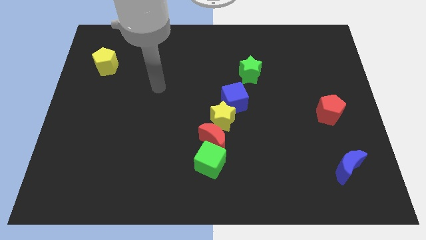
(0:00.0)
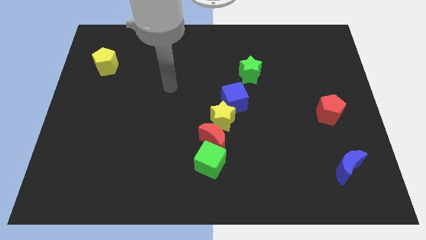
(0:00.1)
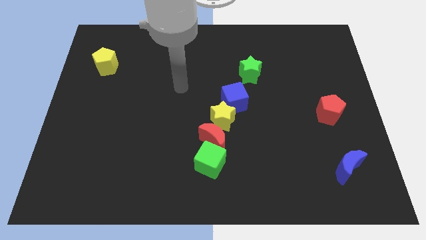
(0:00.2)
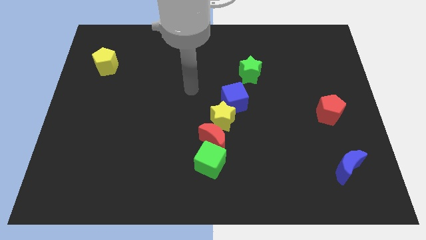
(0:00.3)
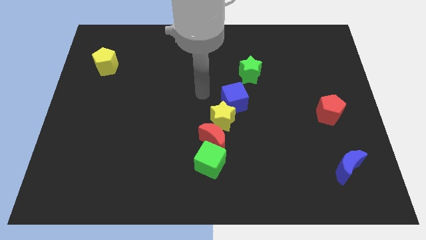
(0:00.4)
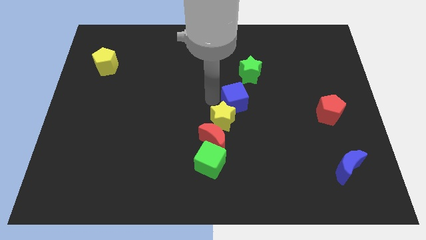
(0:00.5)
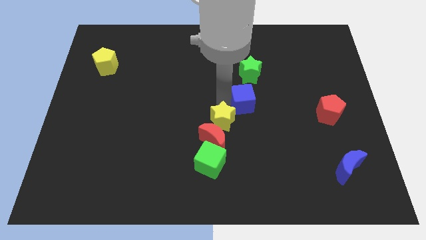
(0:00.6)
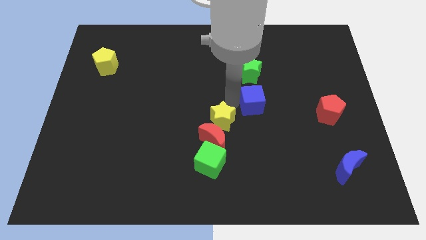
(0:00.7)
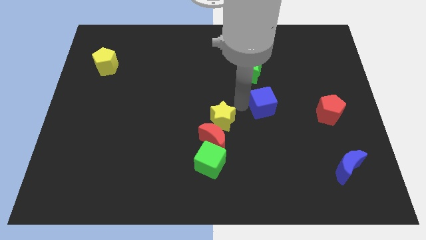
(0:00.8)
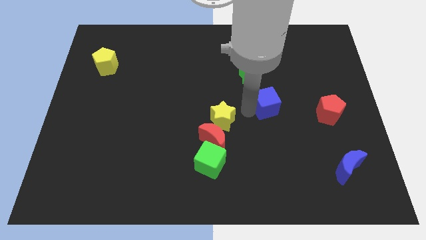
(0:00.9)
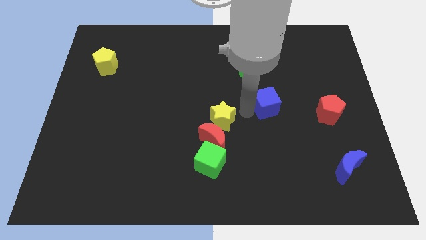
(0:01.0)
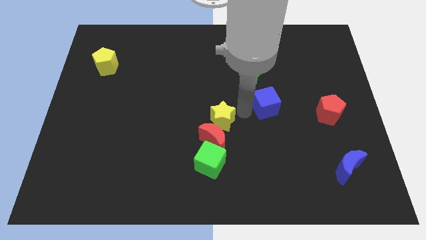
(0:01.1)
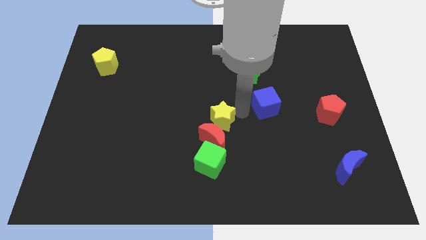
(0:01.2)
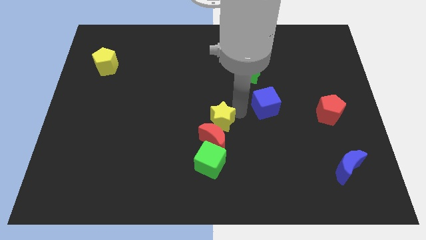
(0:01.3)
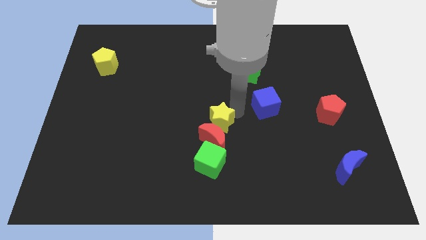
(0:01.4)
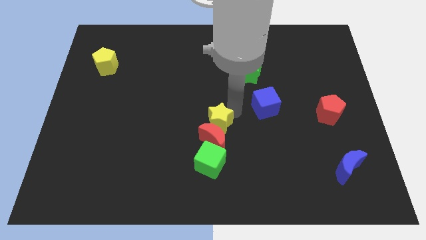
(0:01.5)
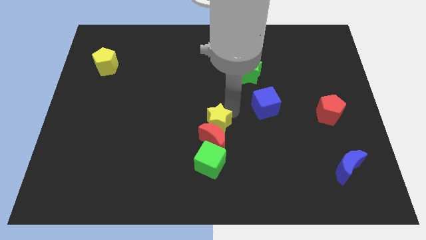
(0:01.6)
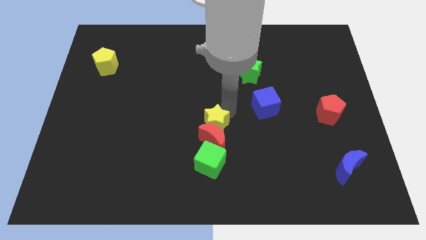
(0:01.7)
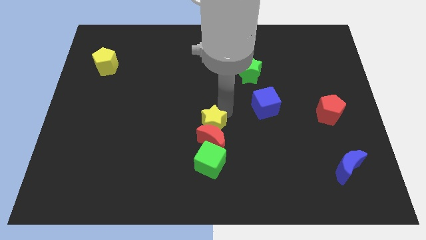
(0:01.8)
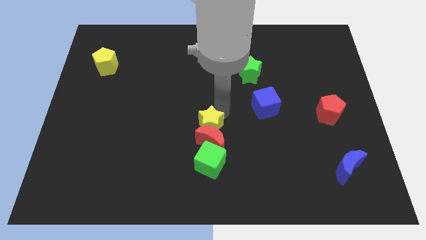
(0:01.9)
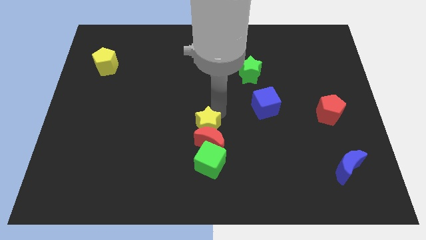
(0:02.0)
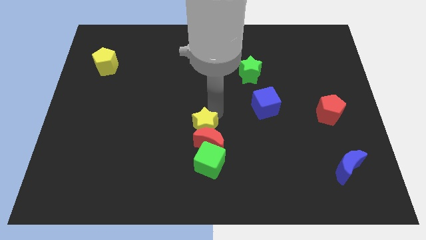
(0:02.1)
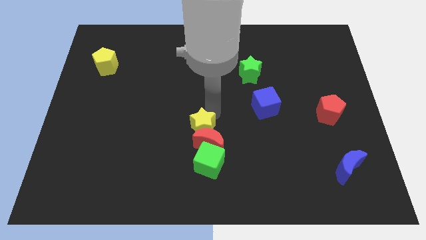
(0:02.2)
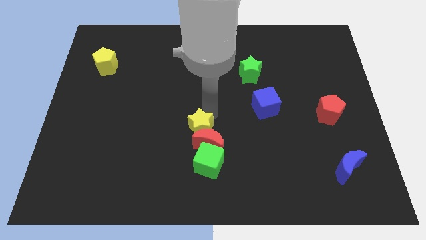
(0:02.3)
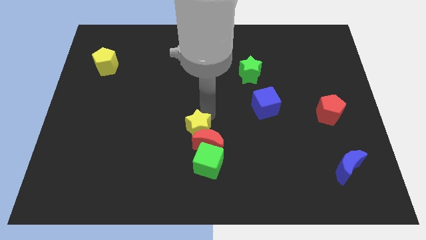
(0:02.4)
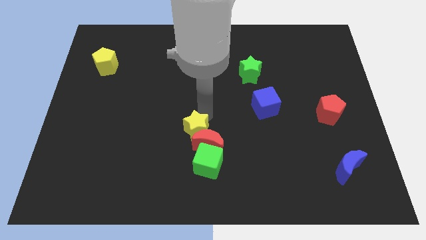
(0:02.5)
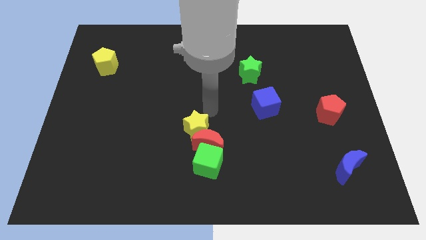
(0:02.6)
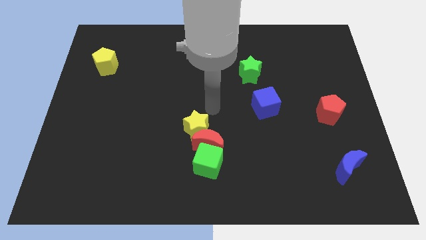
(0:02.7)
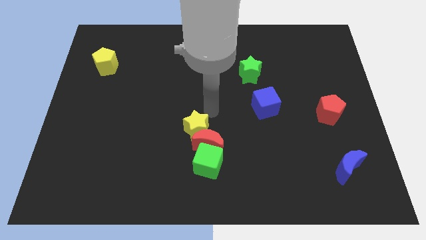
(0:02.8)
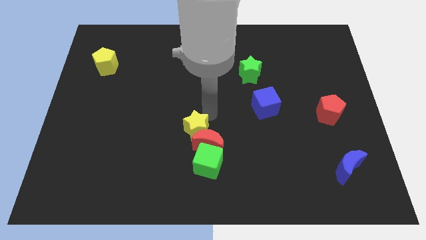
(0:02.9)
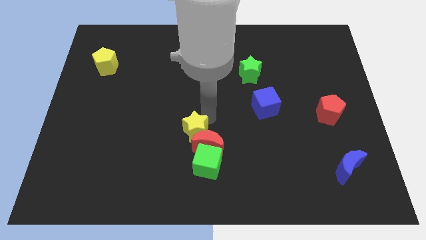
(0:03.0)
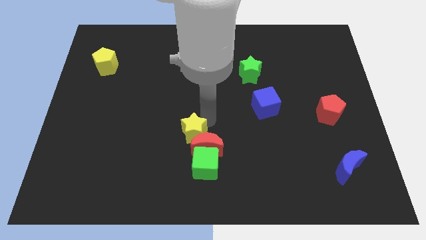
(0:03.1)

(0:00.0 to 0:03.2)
slightly push the yellow star diagonally downwards and to the left

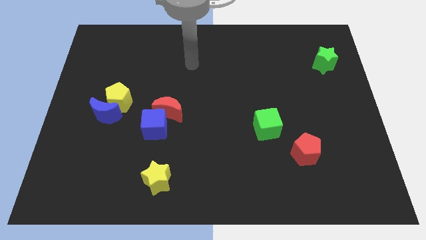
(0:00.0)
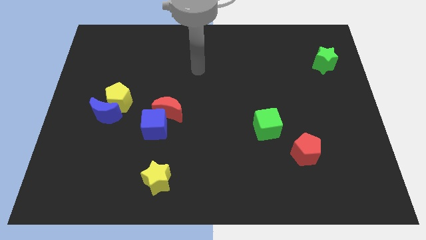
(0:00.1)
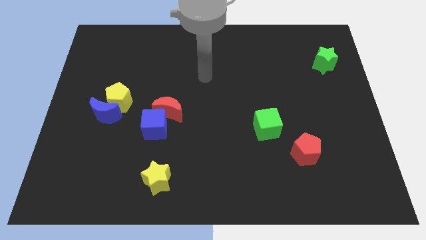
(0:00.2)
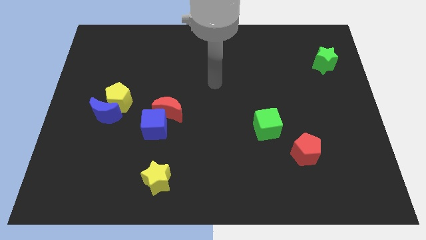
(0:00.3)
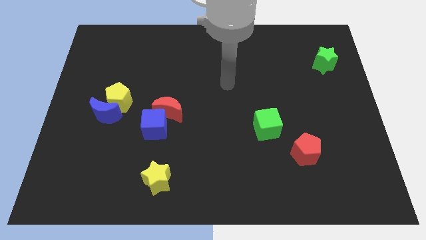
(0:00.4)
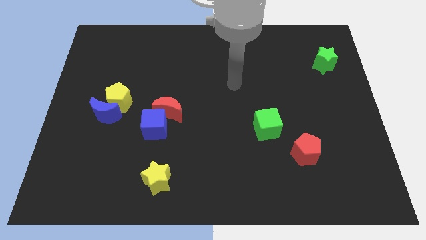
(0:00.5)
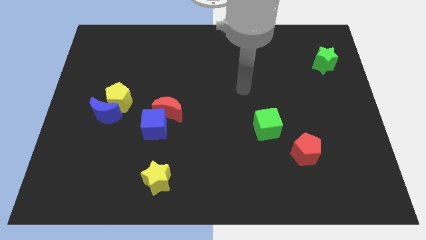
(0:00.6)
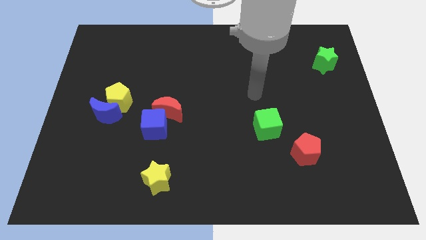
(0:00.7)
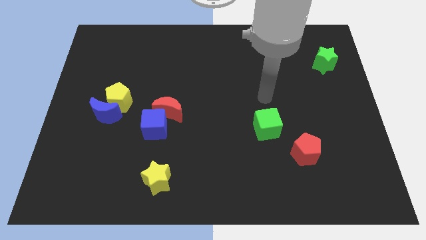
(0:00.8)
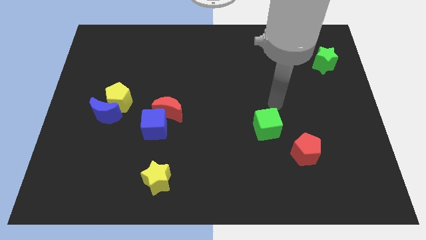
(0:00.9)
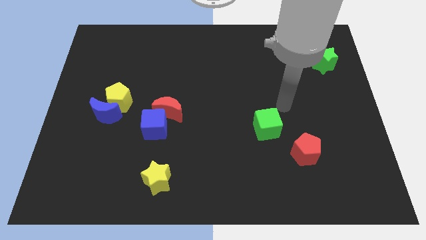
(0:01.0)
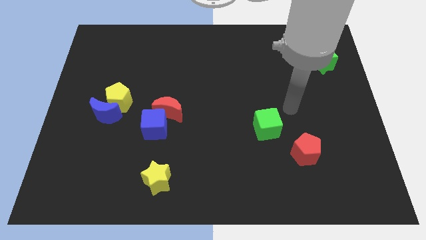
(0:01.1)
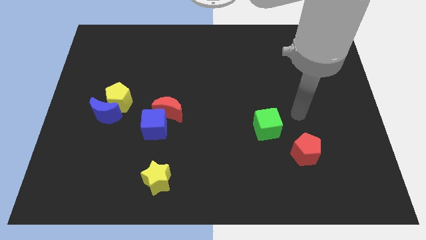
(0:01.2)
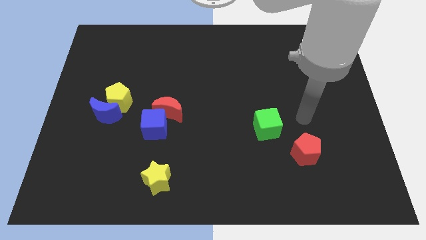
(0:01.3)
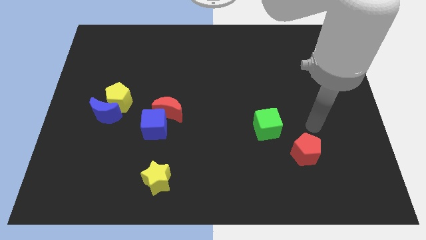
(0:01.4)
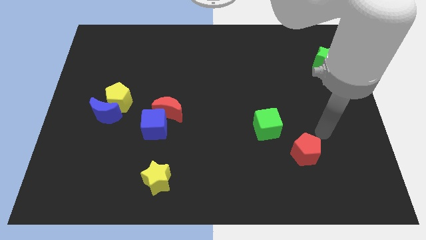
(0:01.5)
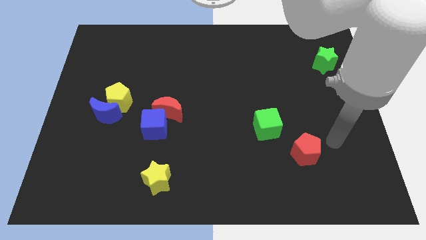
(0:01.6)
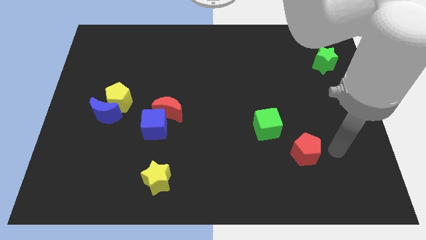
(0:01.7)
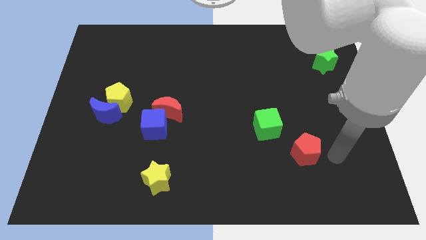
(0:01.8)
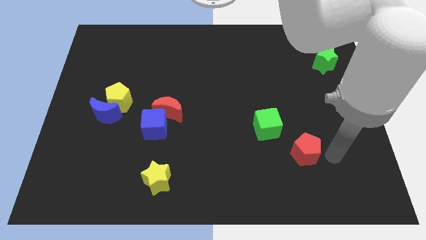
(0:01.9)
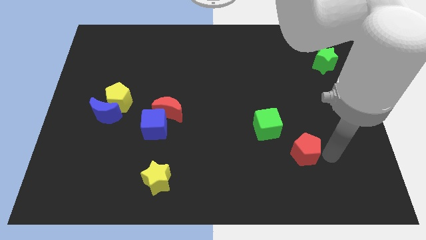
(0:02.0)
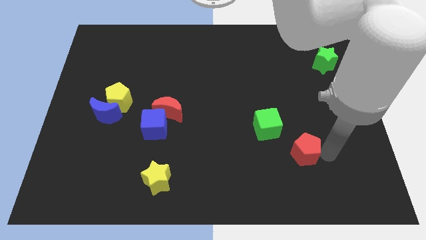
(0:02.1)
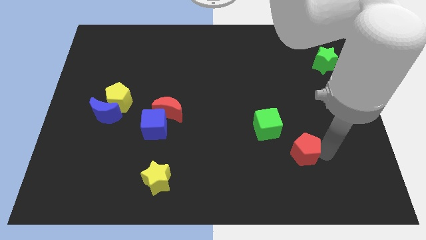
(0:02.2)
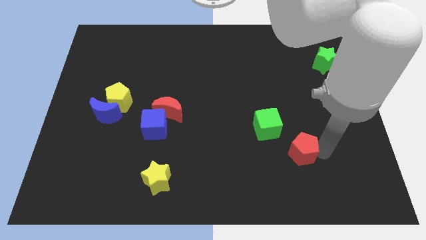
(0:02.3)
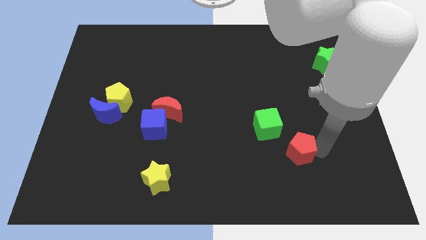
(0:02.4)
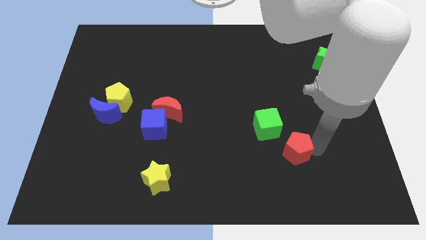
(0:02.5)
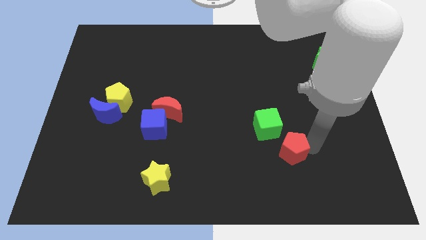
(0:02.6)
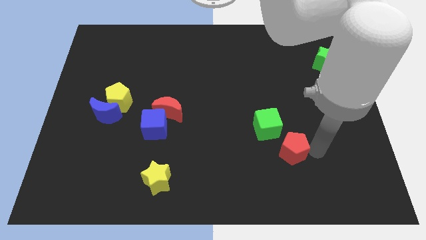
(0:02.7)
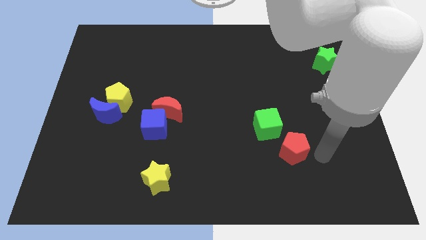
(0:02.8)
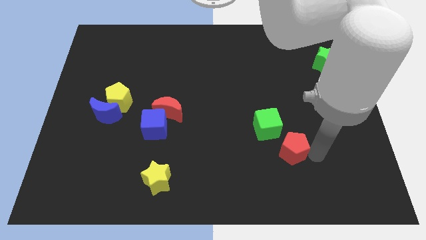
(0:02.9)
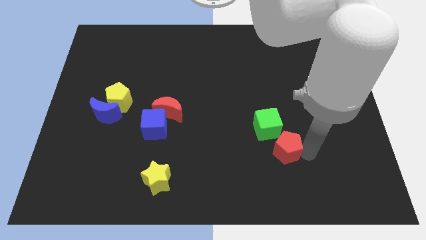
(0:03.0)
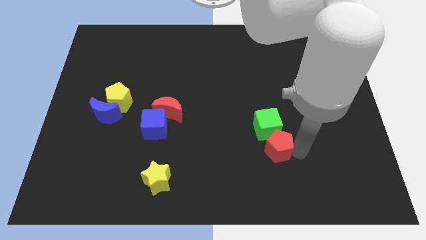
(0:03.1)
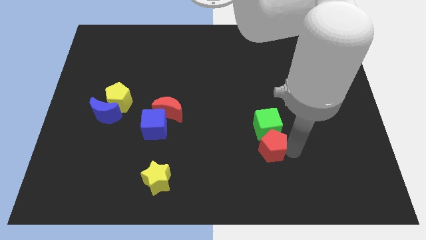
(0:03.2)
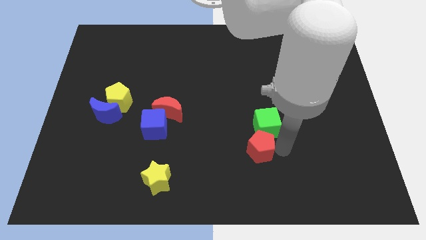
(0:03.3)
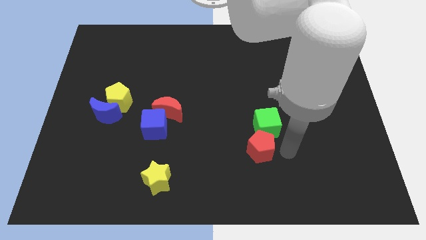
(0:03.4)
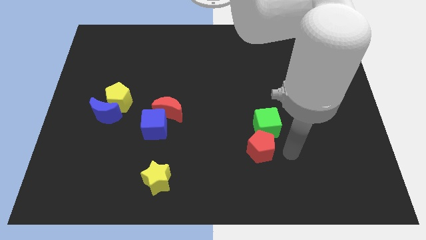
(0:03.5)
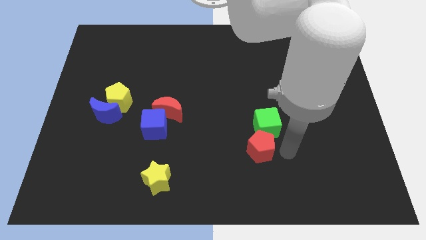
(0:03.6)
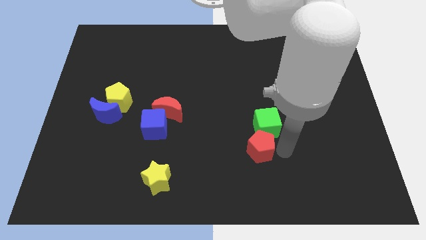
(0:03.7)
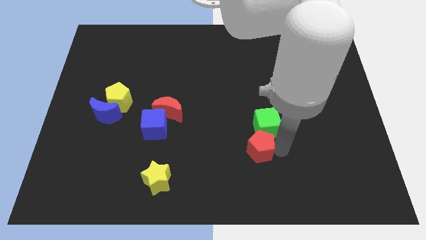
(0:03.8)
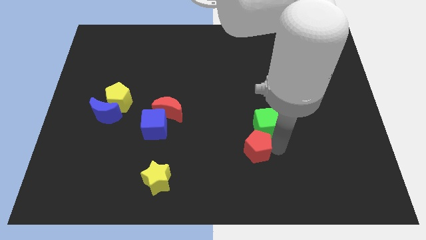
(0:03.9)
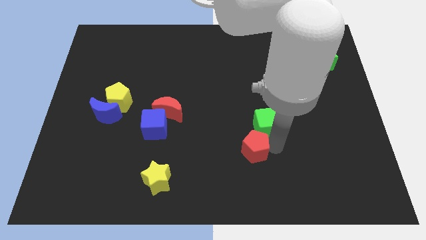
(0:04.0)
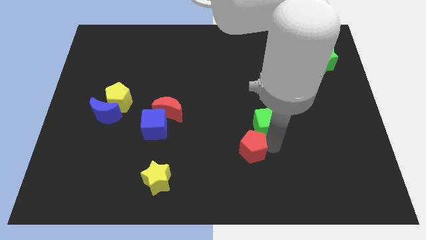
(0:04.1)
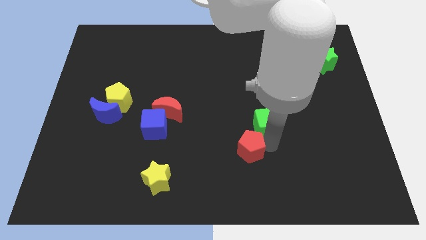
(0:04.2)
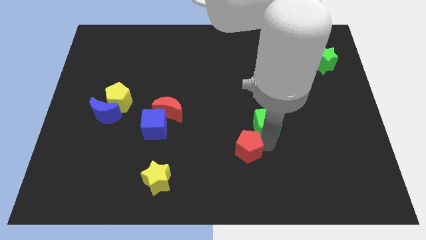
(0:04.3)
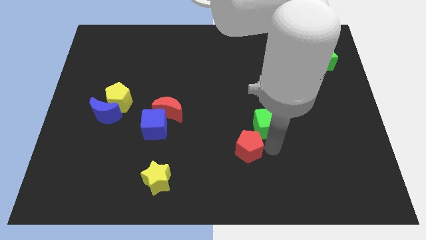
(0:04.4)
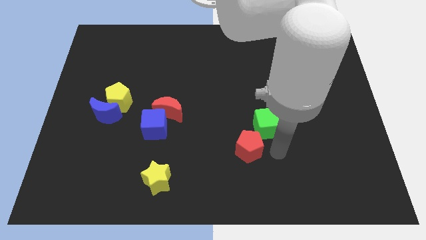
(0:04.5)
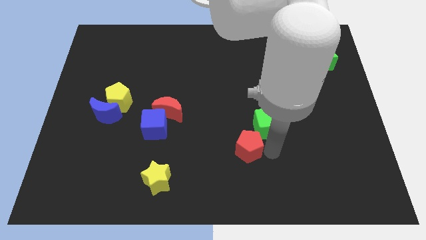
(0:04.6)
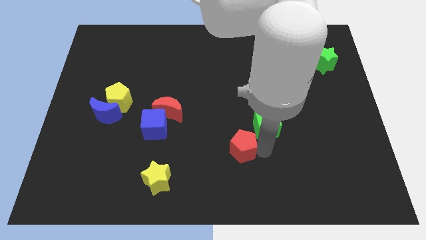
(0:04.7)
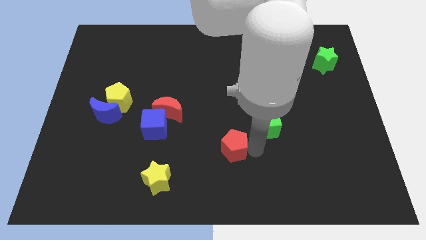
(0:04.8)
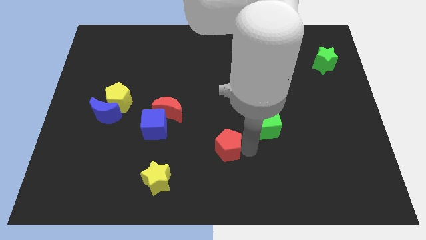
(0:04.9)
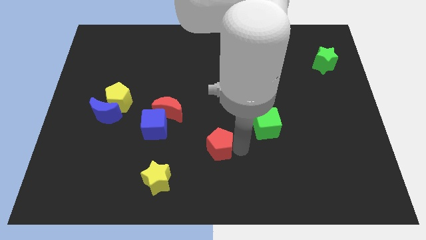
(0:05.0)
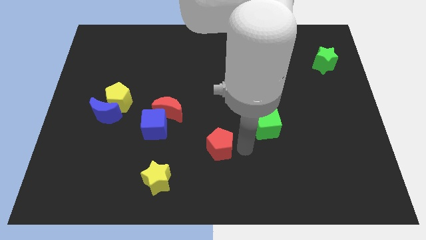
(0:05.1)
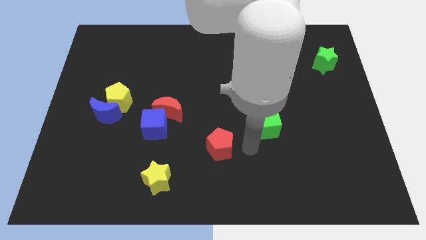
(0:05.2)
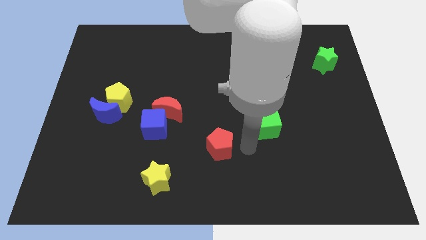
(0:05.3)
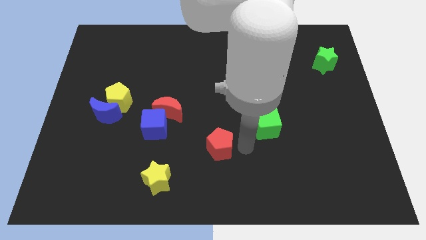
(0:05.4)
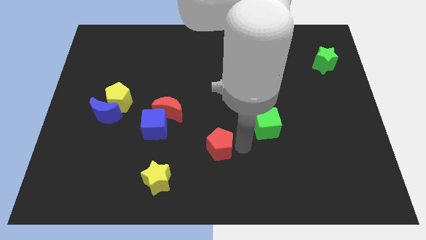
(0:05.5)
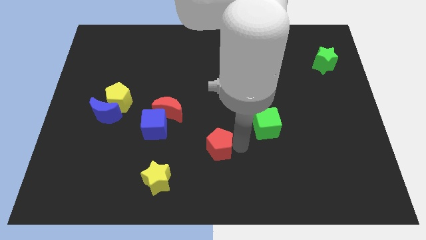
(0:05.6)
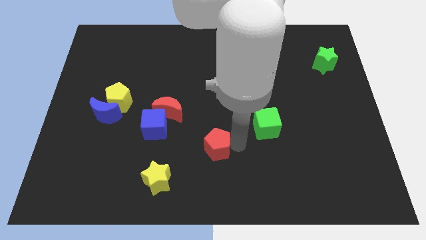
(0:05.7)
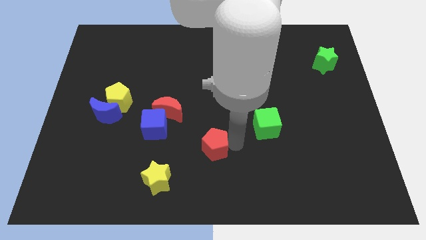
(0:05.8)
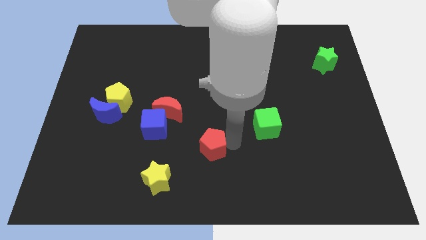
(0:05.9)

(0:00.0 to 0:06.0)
push the red pentagon to the left
